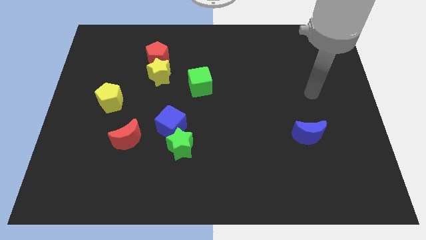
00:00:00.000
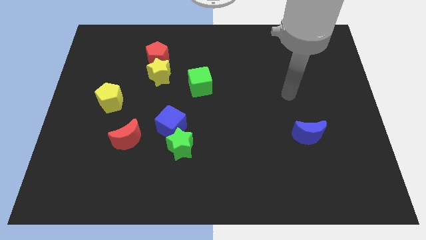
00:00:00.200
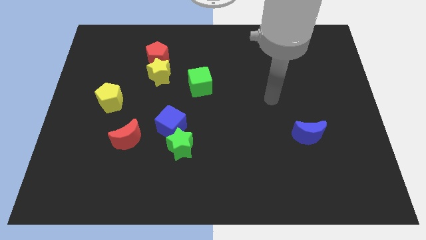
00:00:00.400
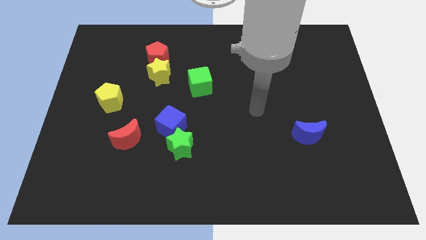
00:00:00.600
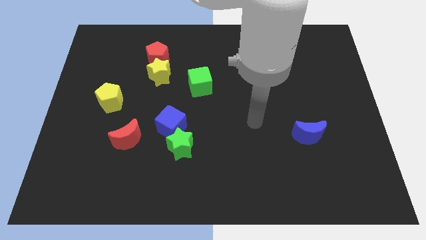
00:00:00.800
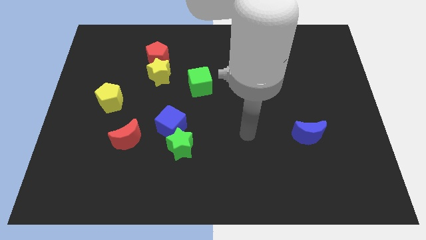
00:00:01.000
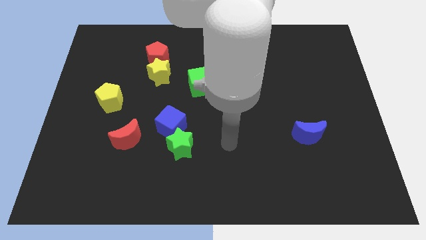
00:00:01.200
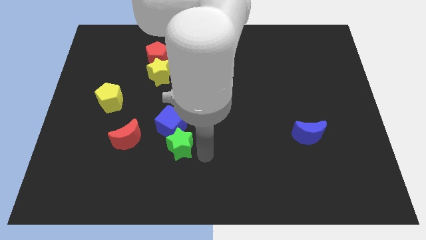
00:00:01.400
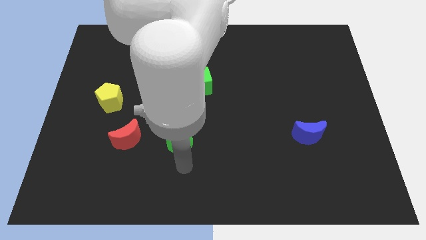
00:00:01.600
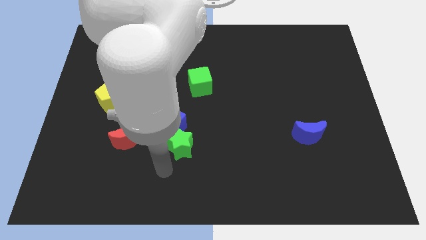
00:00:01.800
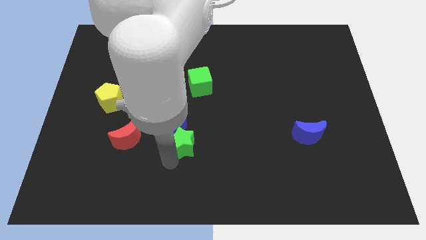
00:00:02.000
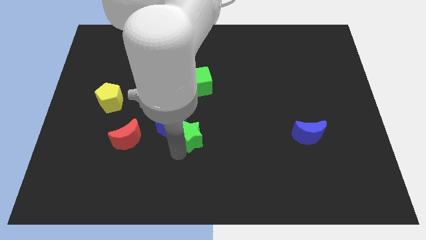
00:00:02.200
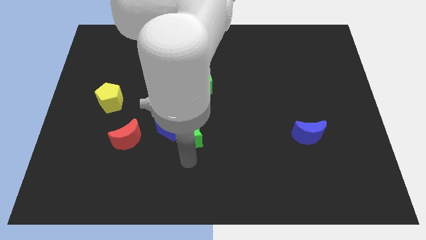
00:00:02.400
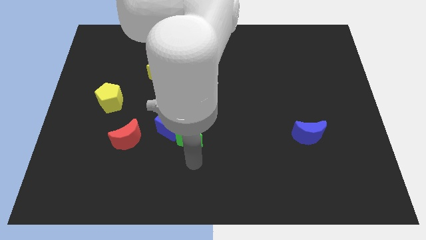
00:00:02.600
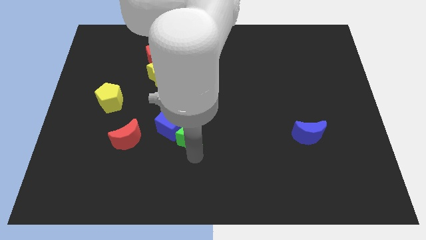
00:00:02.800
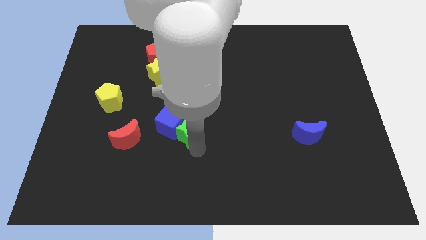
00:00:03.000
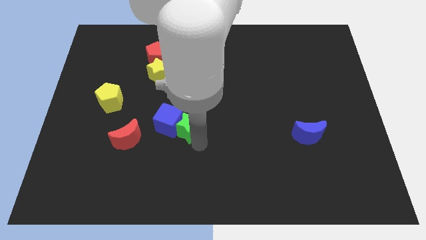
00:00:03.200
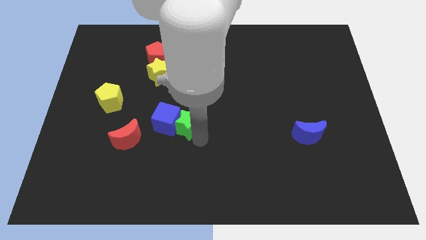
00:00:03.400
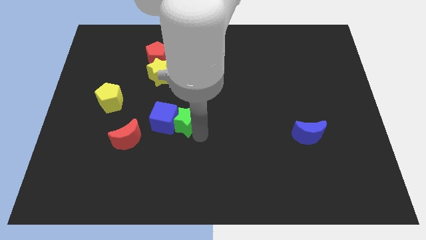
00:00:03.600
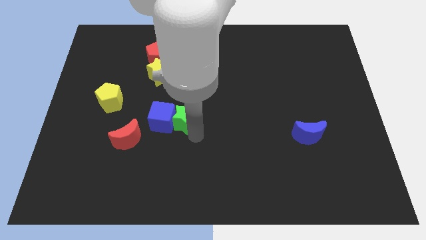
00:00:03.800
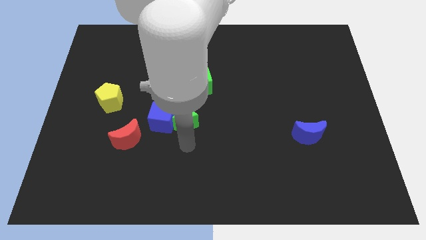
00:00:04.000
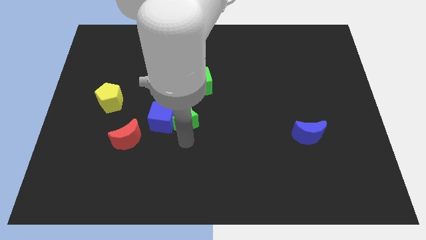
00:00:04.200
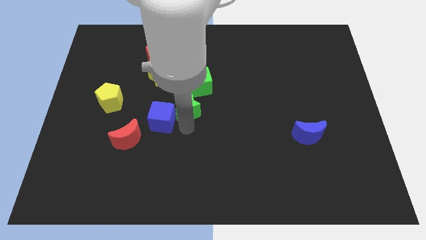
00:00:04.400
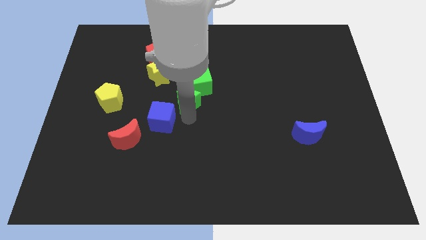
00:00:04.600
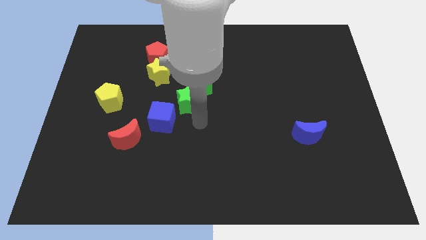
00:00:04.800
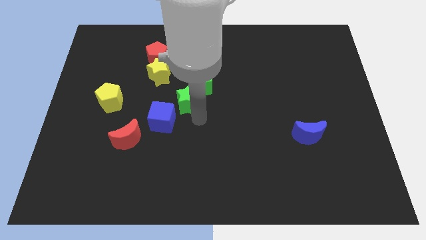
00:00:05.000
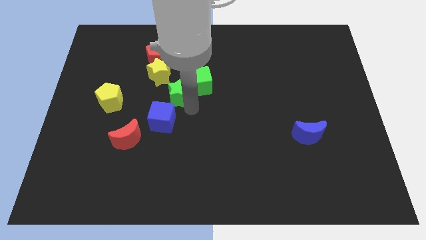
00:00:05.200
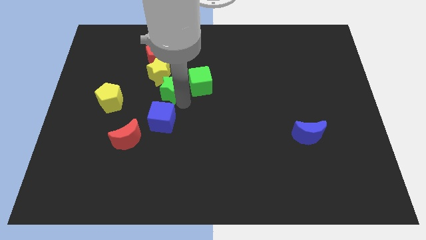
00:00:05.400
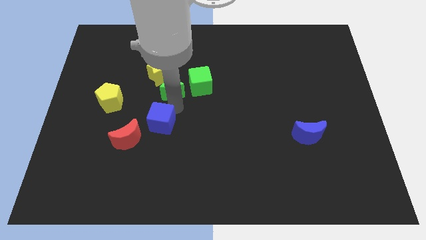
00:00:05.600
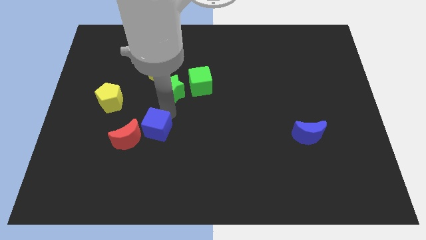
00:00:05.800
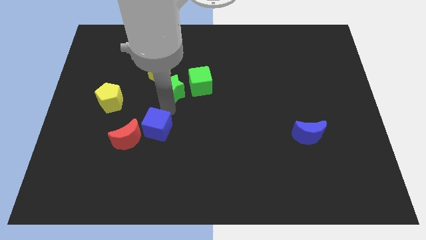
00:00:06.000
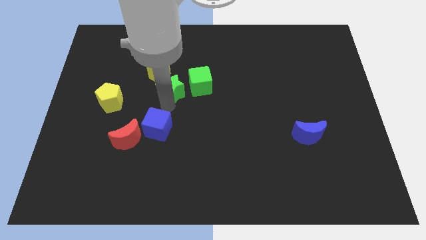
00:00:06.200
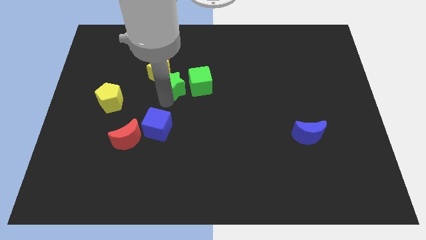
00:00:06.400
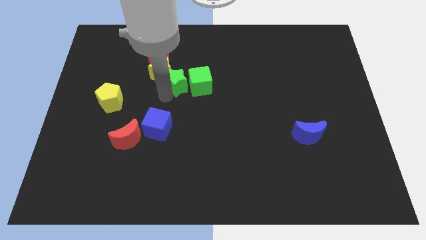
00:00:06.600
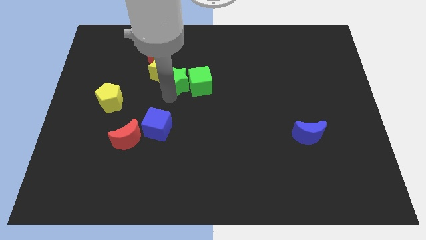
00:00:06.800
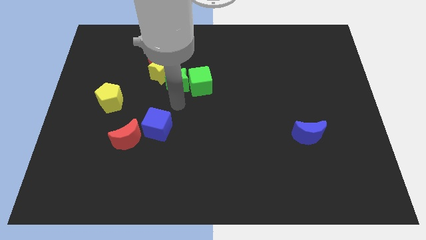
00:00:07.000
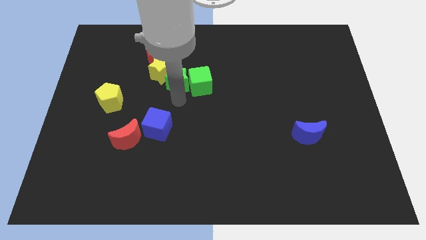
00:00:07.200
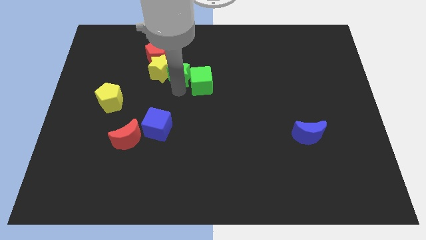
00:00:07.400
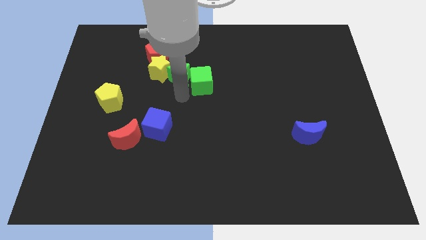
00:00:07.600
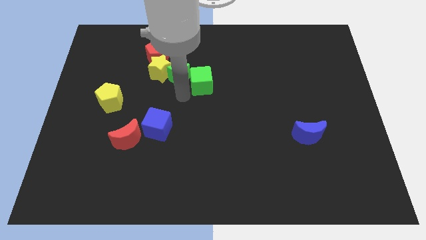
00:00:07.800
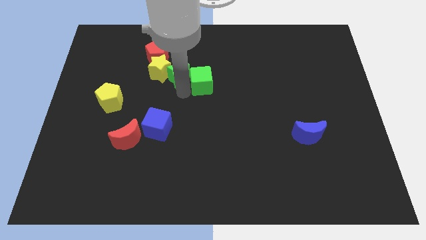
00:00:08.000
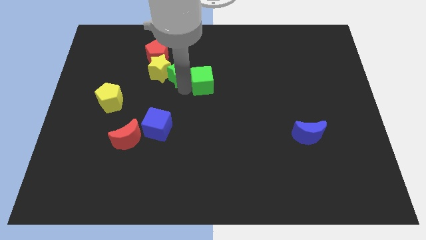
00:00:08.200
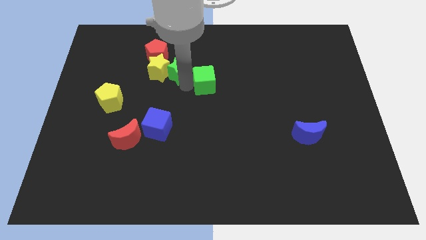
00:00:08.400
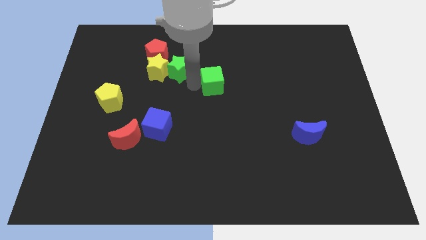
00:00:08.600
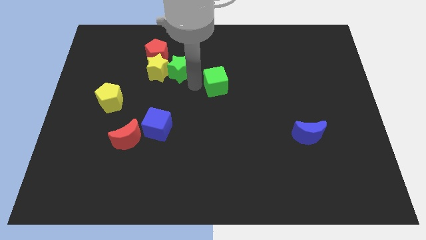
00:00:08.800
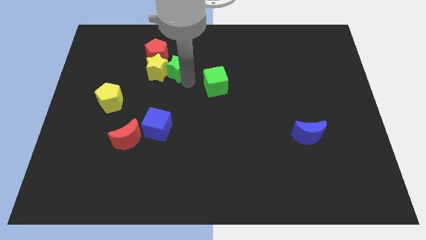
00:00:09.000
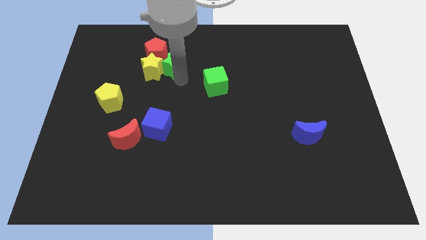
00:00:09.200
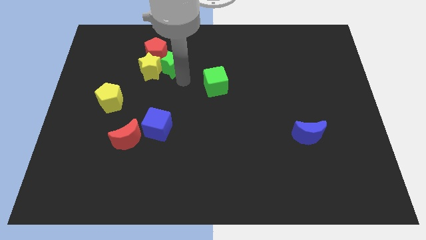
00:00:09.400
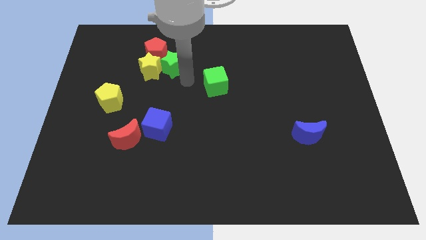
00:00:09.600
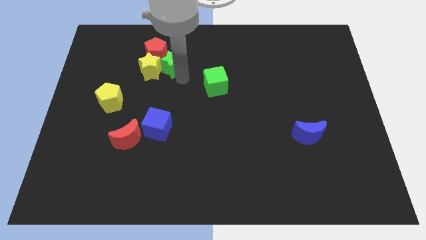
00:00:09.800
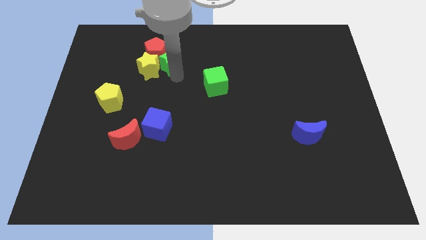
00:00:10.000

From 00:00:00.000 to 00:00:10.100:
slide the green star to the red pentagon

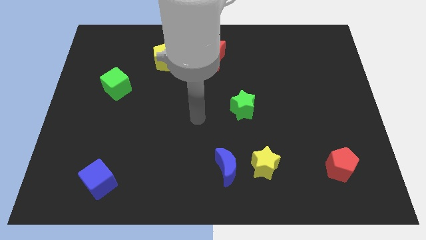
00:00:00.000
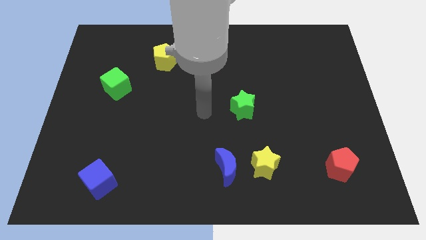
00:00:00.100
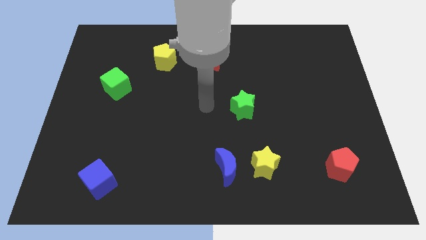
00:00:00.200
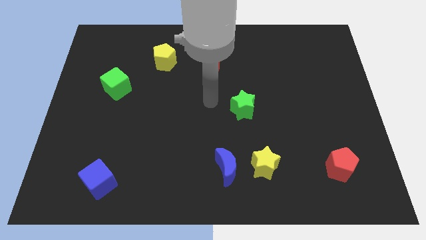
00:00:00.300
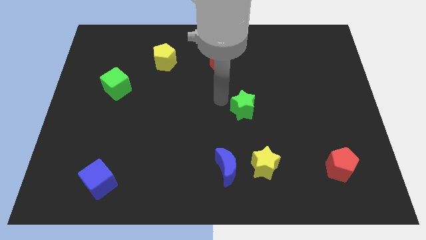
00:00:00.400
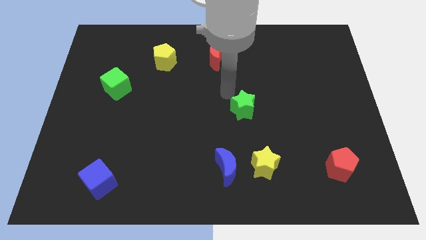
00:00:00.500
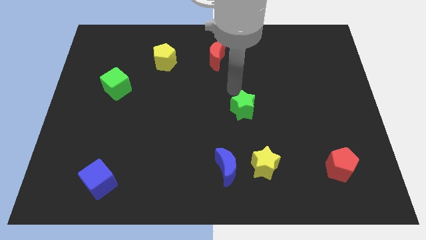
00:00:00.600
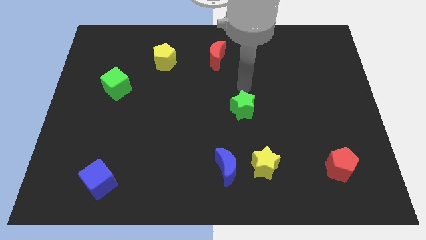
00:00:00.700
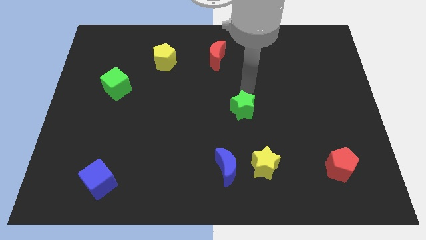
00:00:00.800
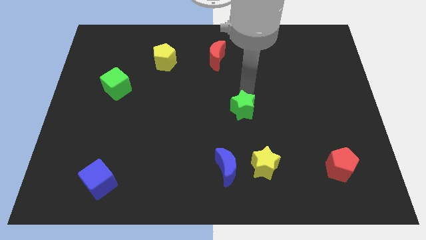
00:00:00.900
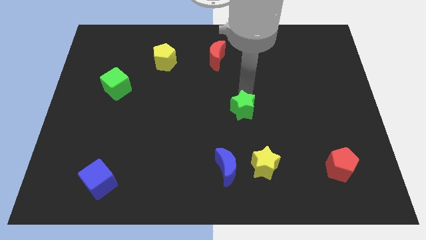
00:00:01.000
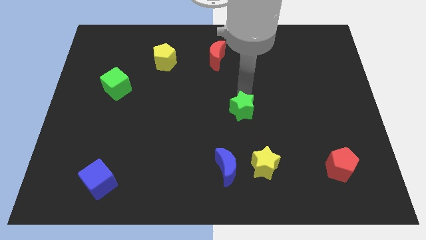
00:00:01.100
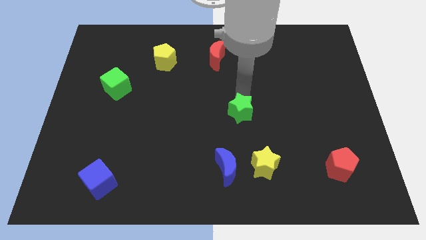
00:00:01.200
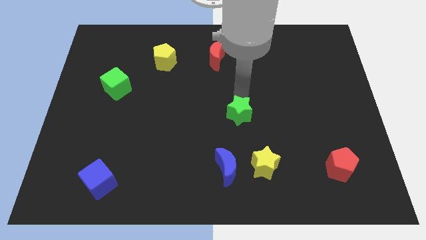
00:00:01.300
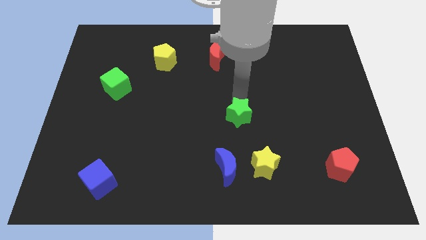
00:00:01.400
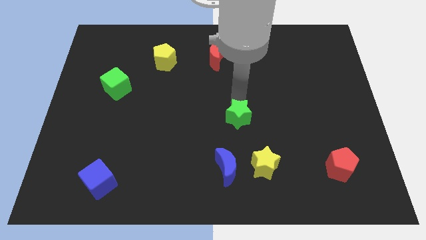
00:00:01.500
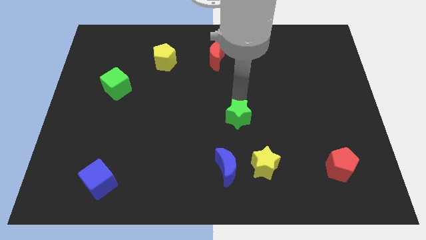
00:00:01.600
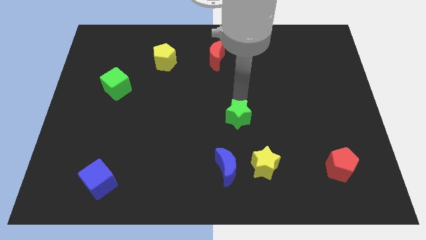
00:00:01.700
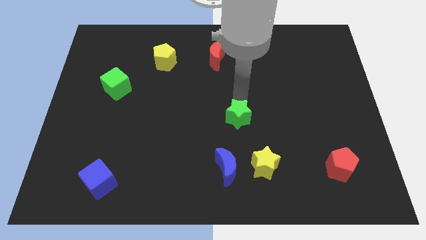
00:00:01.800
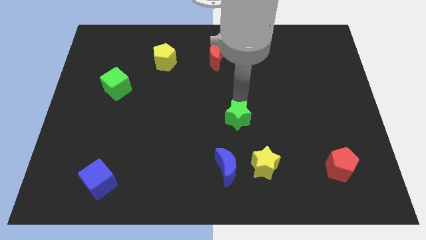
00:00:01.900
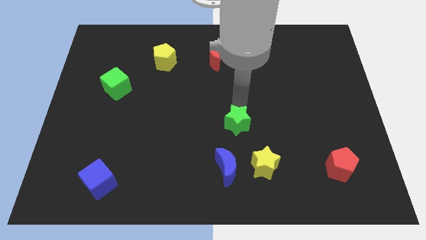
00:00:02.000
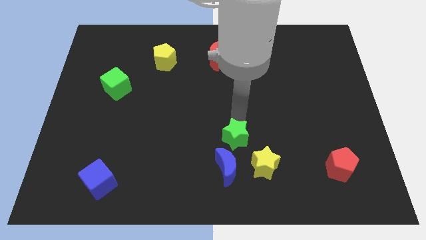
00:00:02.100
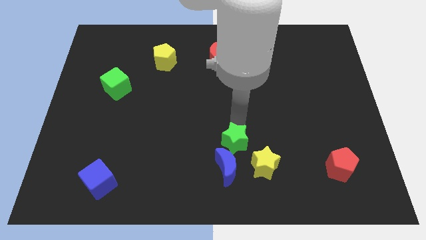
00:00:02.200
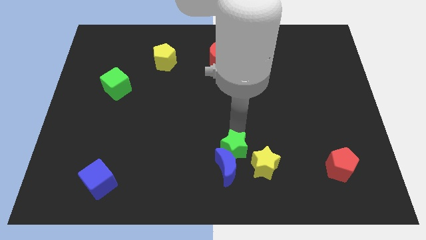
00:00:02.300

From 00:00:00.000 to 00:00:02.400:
push the green star towards the blue moon

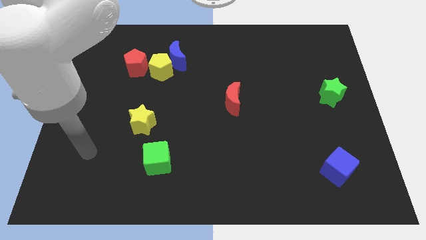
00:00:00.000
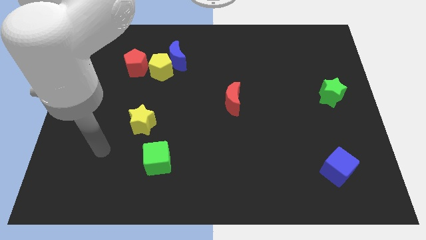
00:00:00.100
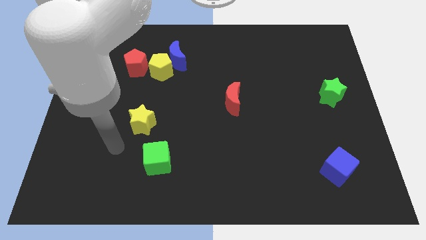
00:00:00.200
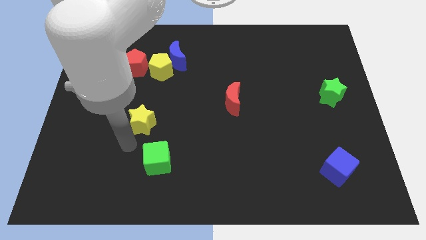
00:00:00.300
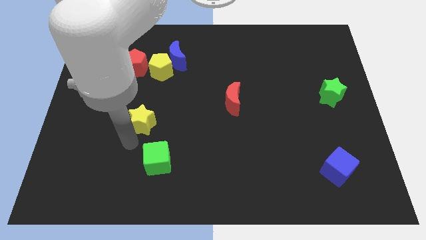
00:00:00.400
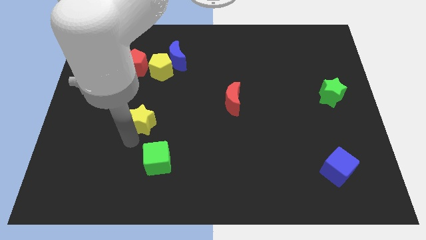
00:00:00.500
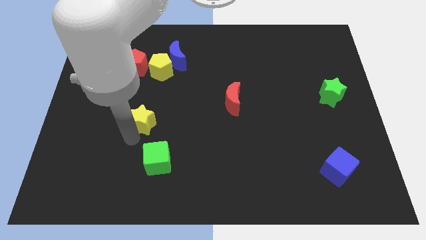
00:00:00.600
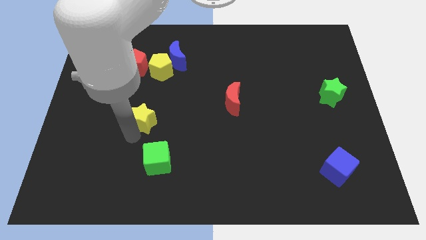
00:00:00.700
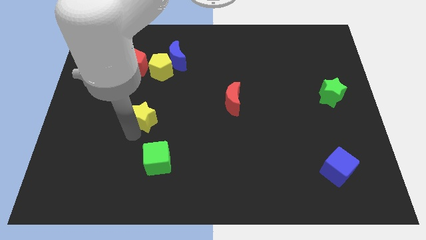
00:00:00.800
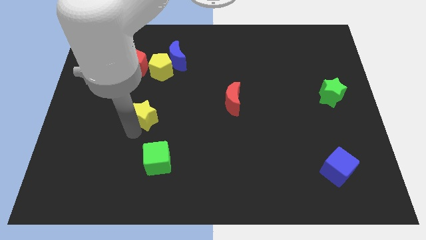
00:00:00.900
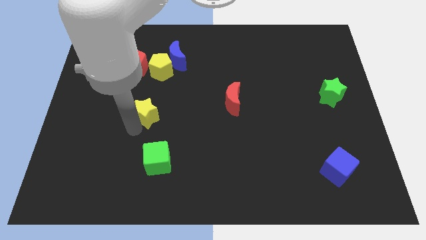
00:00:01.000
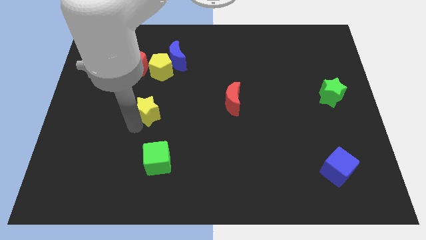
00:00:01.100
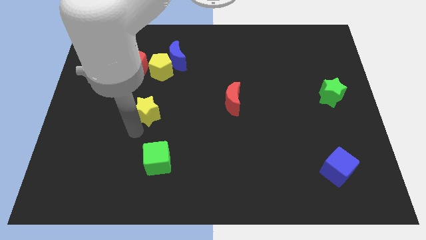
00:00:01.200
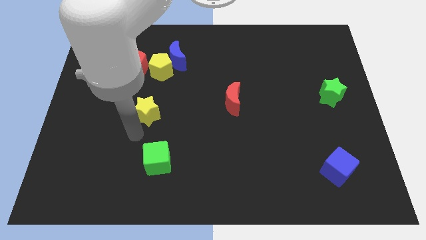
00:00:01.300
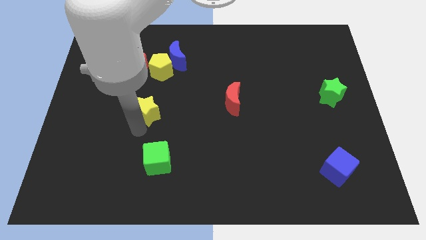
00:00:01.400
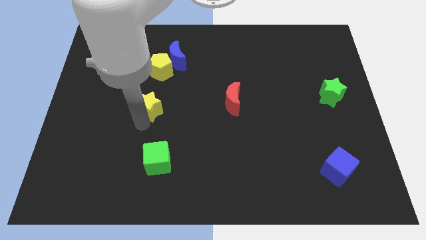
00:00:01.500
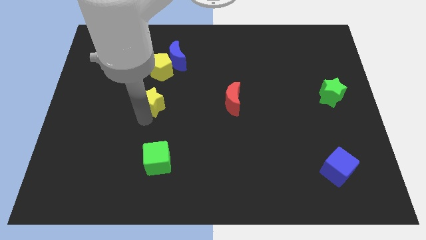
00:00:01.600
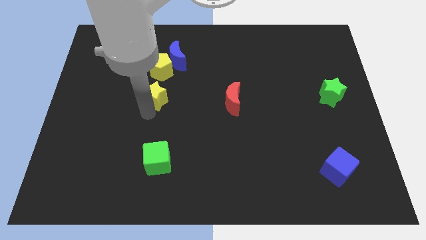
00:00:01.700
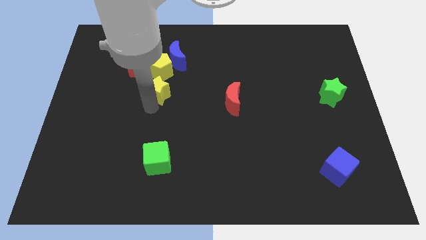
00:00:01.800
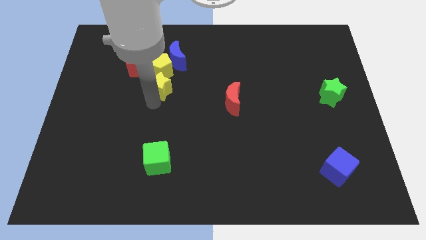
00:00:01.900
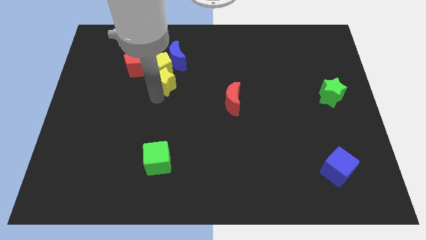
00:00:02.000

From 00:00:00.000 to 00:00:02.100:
put the yellow star close to the yellow pentagon
